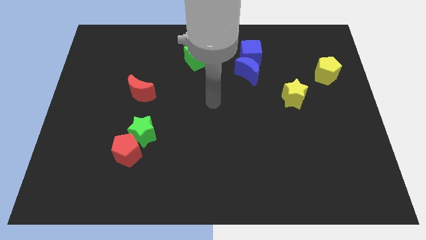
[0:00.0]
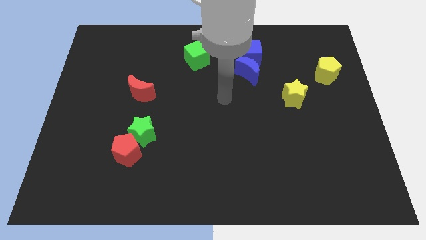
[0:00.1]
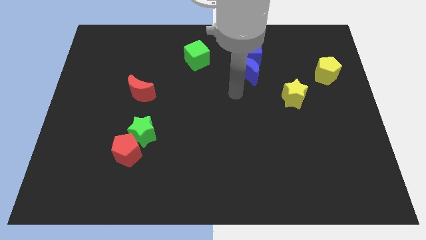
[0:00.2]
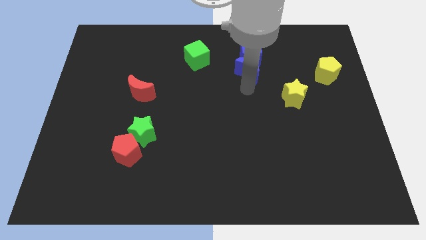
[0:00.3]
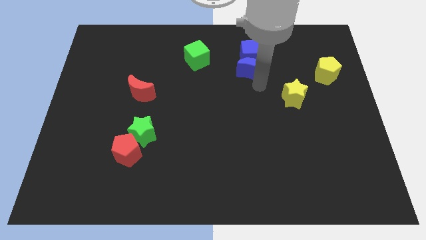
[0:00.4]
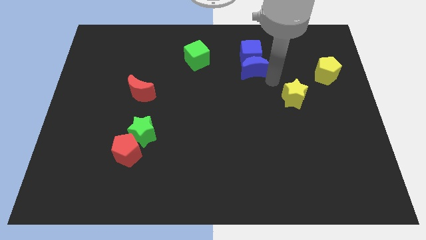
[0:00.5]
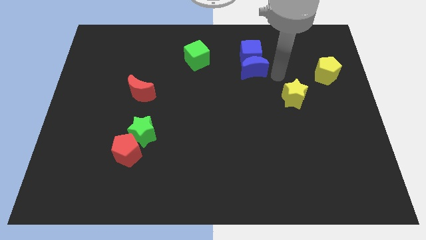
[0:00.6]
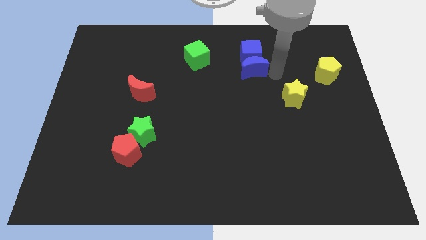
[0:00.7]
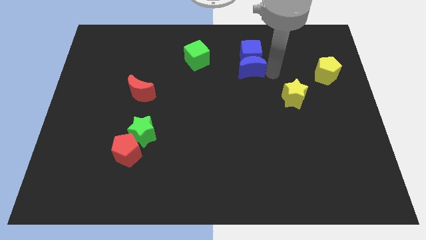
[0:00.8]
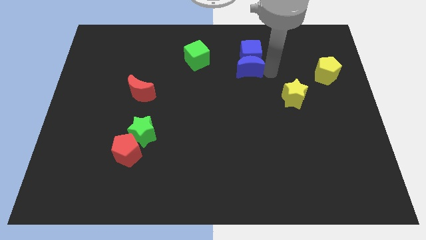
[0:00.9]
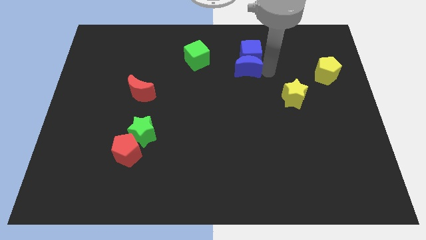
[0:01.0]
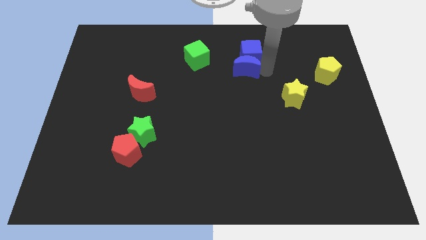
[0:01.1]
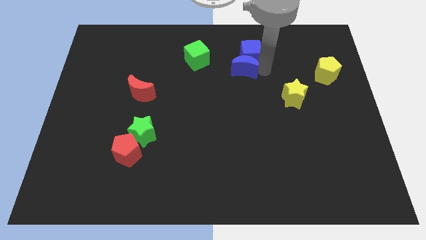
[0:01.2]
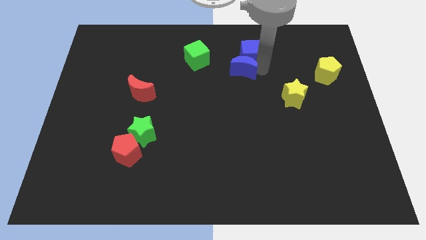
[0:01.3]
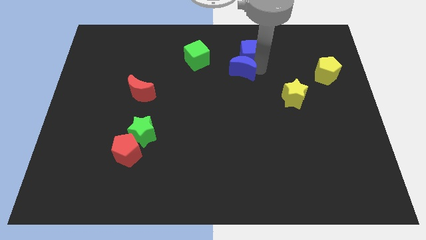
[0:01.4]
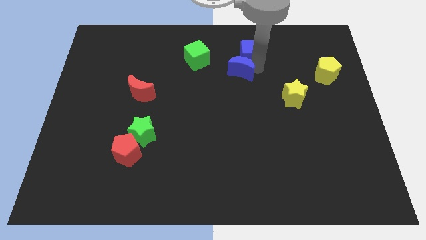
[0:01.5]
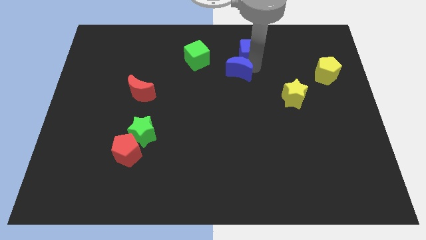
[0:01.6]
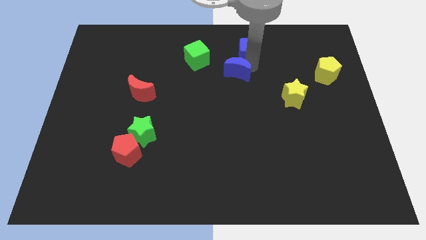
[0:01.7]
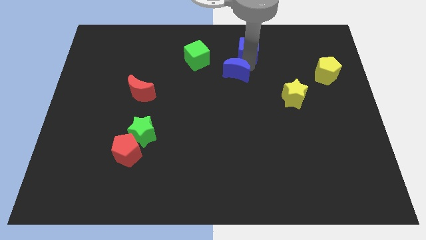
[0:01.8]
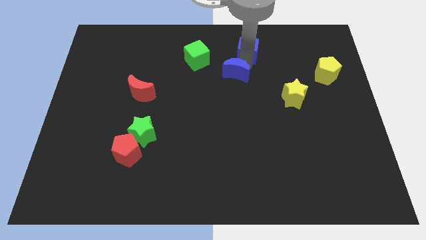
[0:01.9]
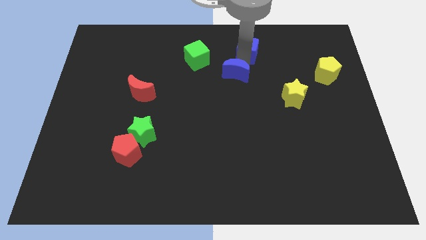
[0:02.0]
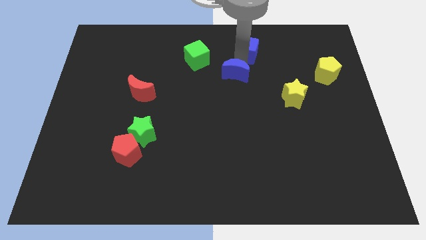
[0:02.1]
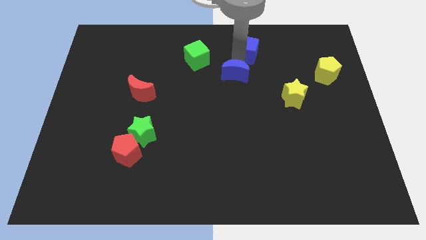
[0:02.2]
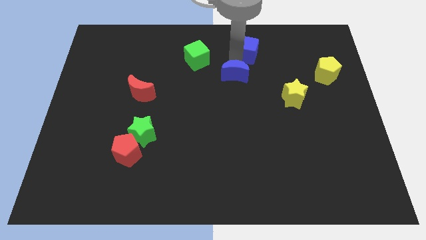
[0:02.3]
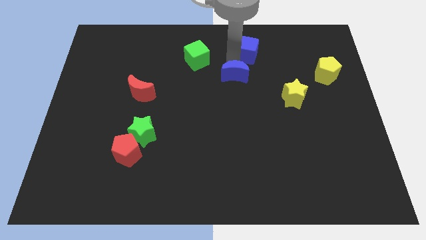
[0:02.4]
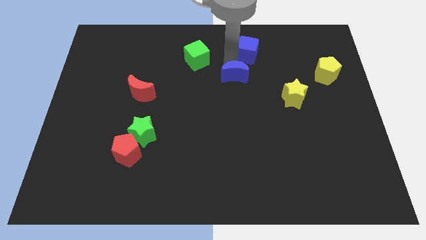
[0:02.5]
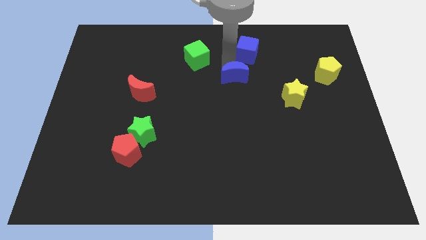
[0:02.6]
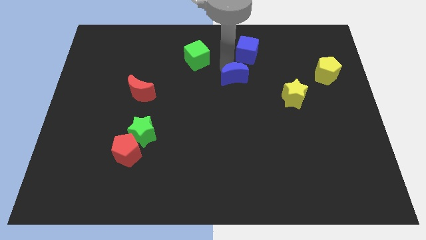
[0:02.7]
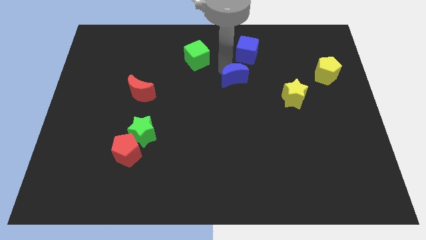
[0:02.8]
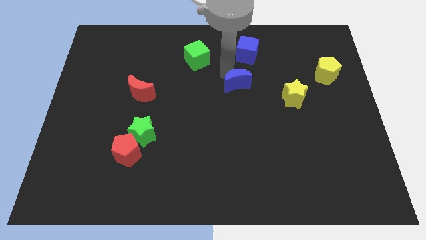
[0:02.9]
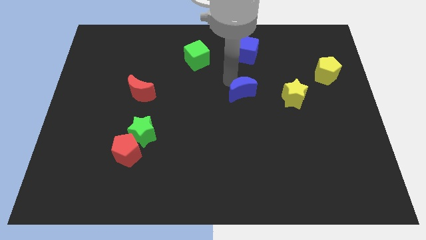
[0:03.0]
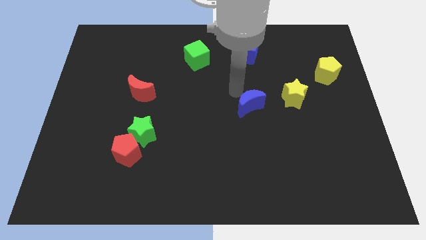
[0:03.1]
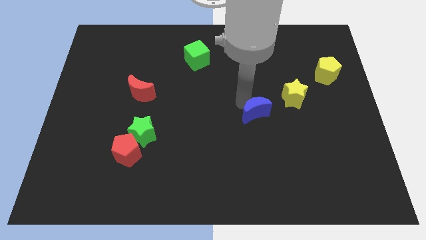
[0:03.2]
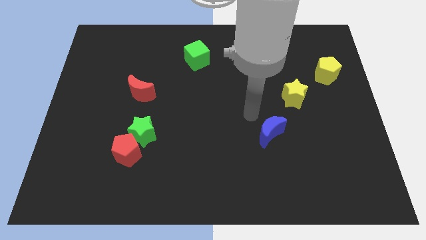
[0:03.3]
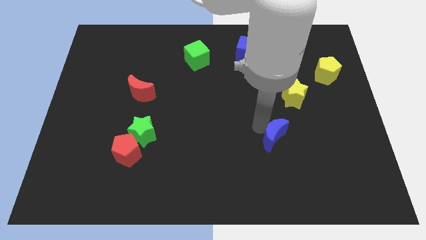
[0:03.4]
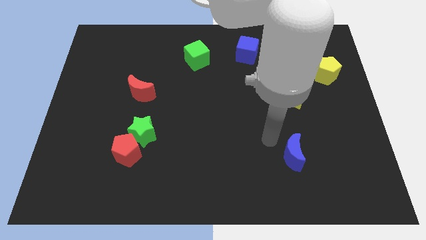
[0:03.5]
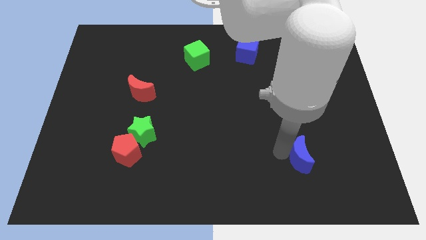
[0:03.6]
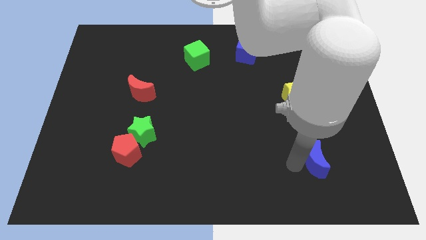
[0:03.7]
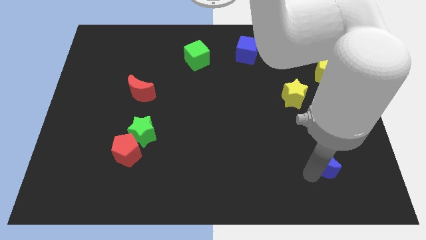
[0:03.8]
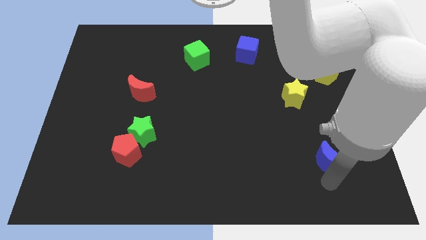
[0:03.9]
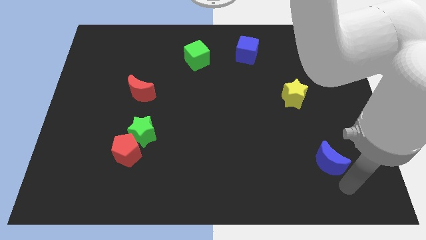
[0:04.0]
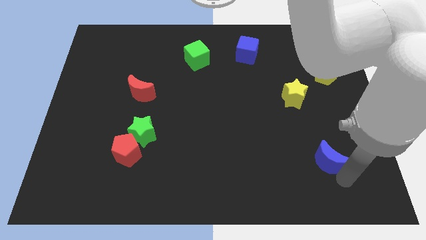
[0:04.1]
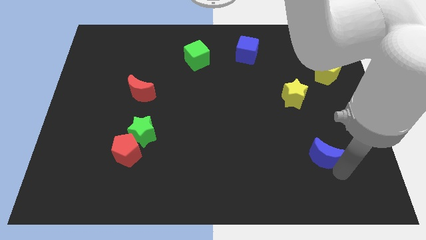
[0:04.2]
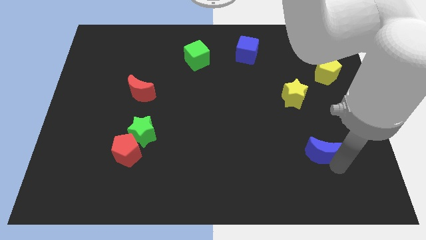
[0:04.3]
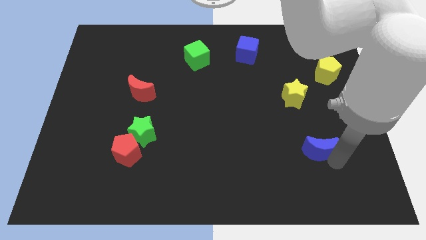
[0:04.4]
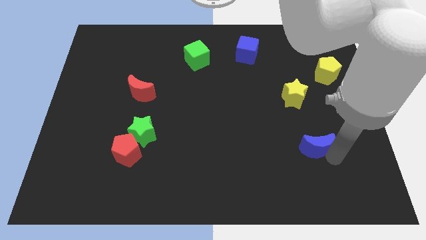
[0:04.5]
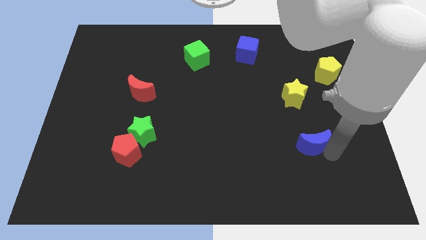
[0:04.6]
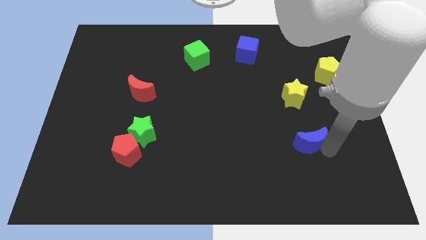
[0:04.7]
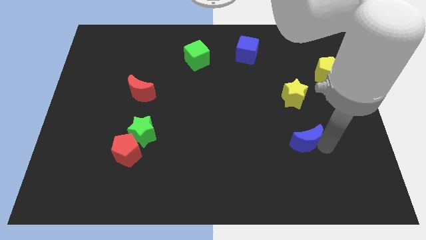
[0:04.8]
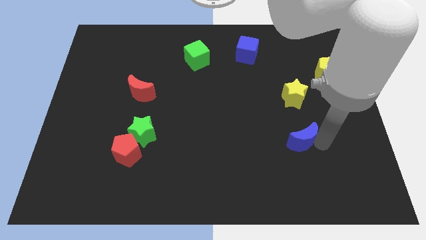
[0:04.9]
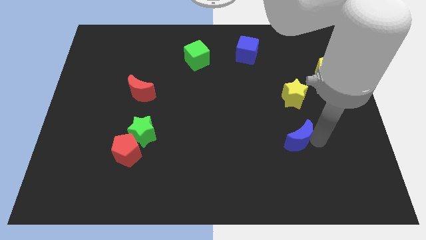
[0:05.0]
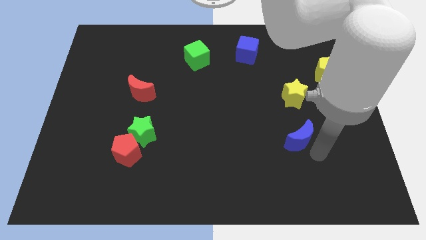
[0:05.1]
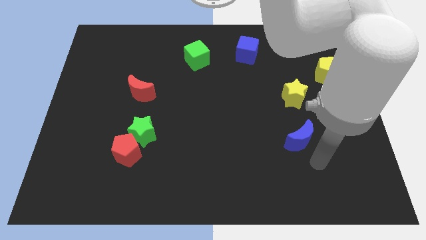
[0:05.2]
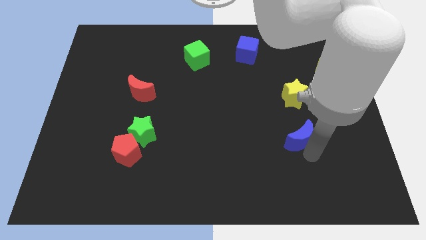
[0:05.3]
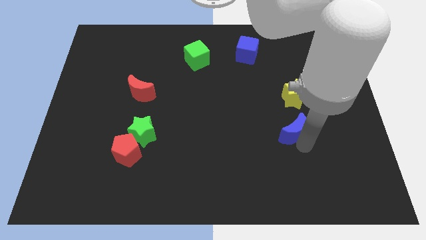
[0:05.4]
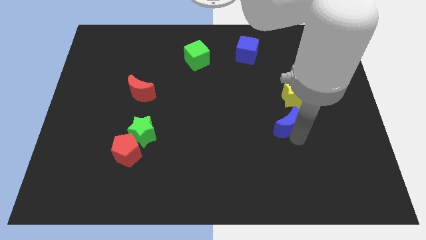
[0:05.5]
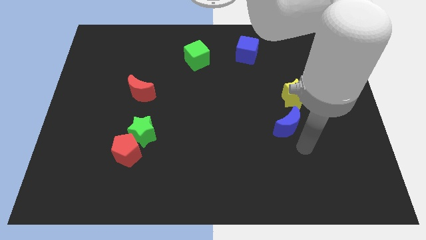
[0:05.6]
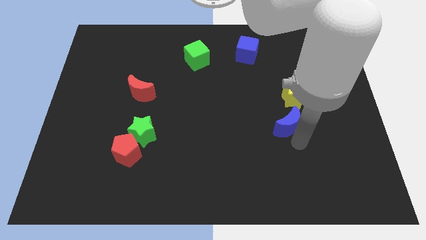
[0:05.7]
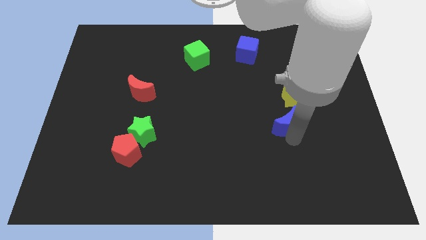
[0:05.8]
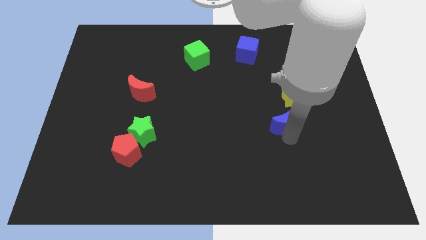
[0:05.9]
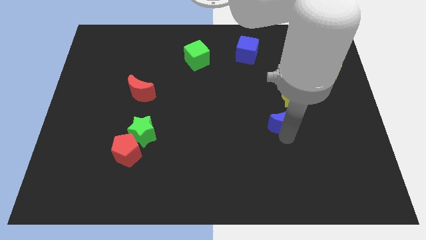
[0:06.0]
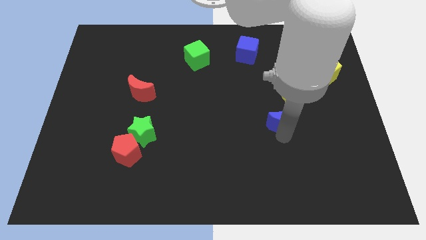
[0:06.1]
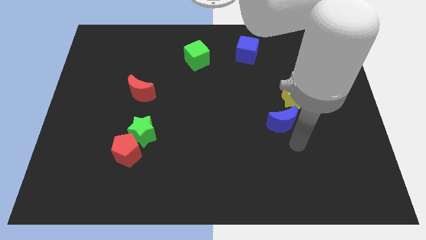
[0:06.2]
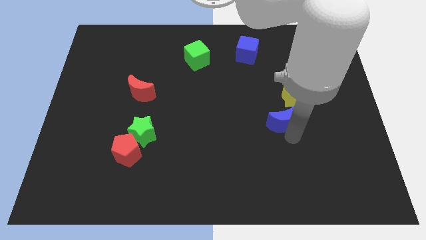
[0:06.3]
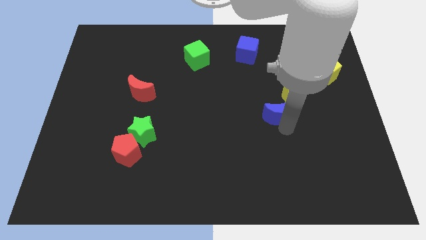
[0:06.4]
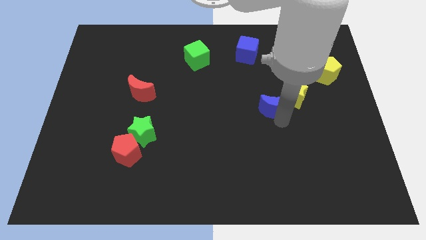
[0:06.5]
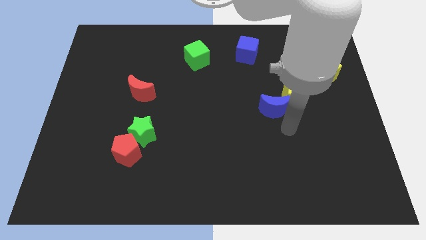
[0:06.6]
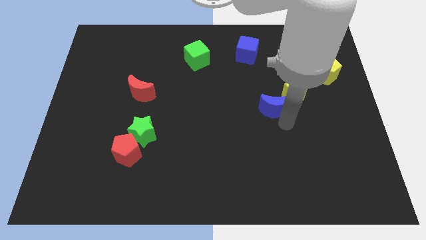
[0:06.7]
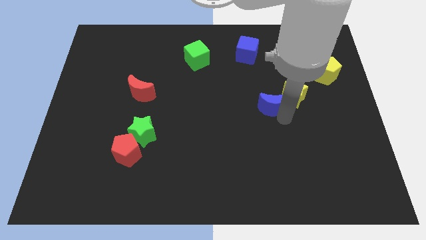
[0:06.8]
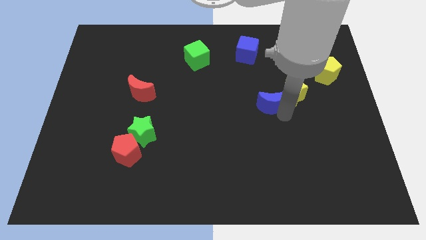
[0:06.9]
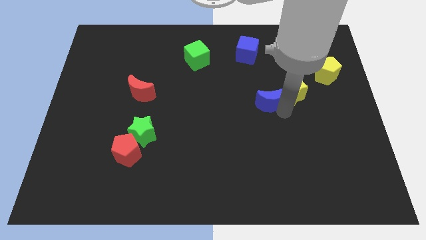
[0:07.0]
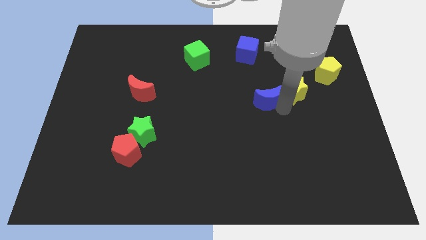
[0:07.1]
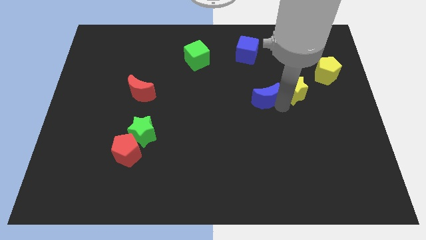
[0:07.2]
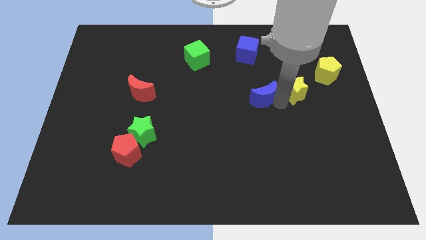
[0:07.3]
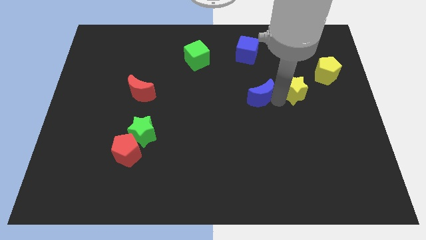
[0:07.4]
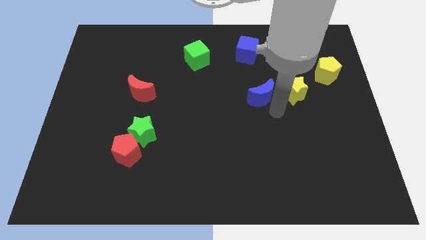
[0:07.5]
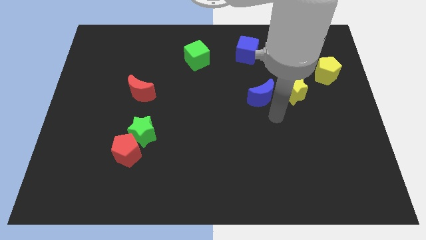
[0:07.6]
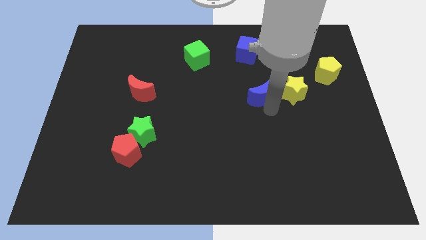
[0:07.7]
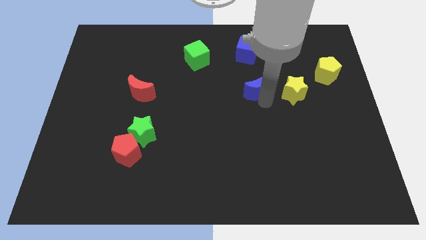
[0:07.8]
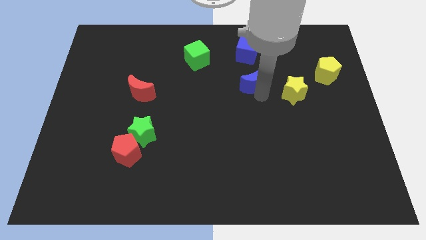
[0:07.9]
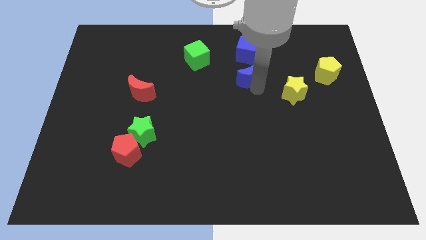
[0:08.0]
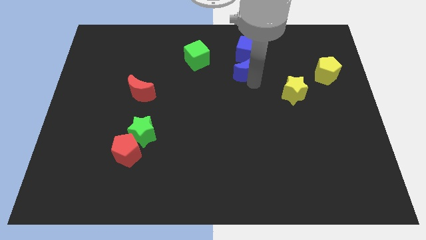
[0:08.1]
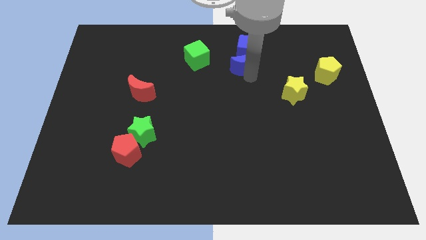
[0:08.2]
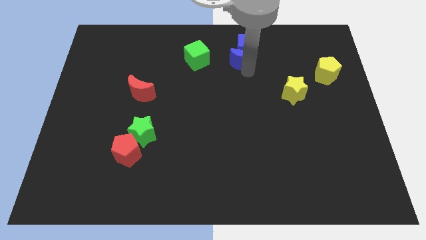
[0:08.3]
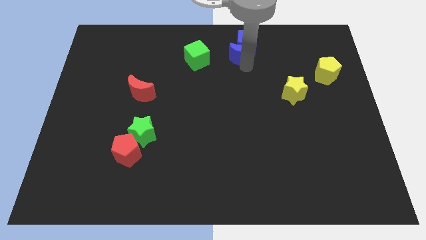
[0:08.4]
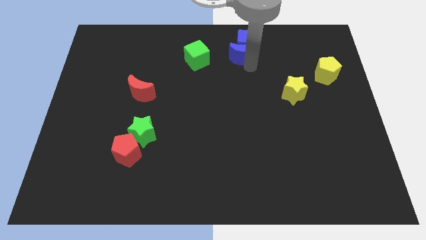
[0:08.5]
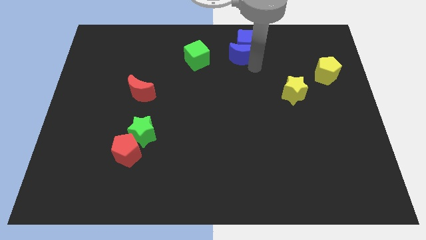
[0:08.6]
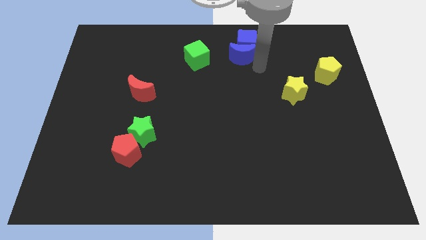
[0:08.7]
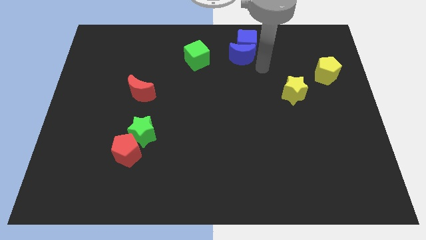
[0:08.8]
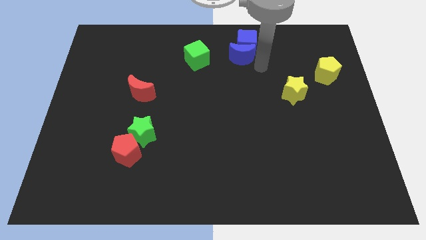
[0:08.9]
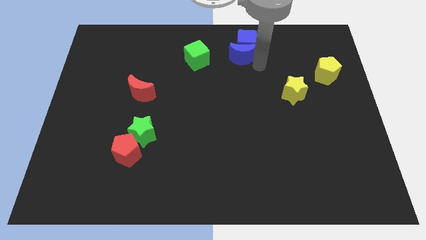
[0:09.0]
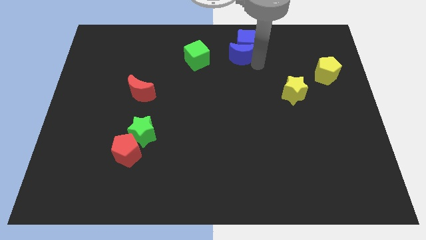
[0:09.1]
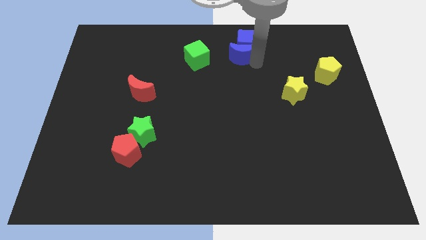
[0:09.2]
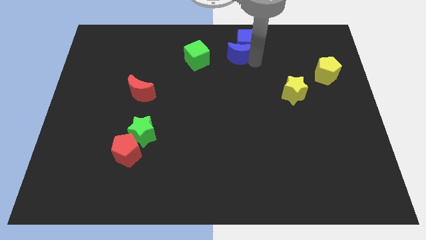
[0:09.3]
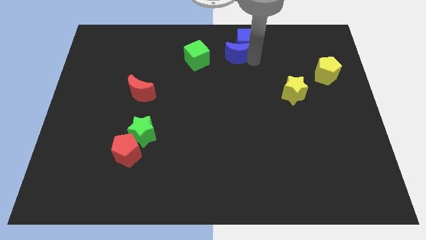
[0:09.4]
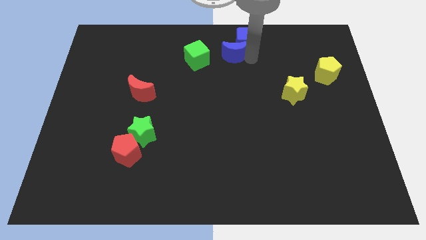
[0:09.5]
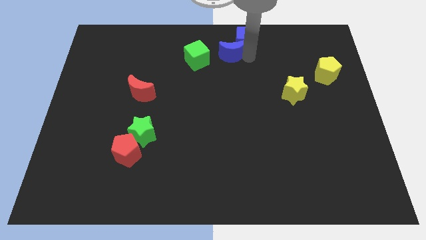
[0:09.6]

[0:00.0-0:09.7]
push the blue moon to the top
